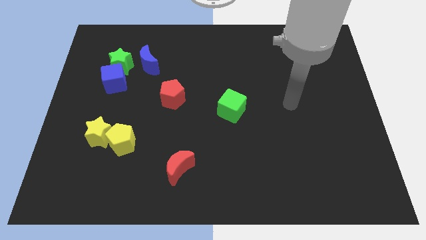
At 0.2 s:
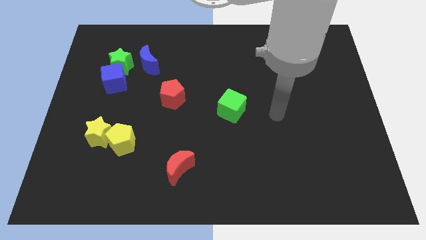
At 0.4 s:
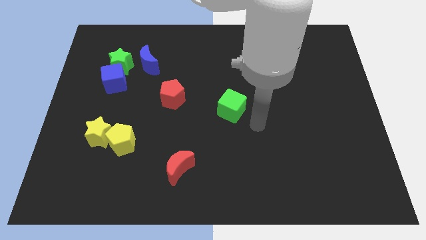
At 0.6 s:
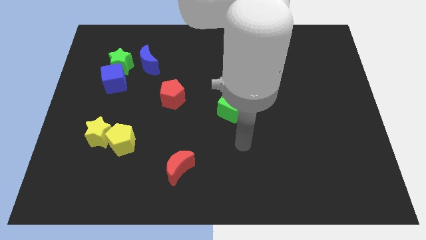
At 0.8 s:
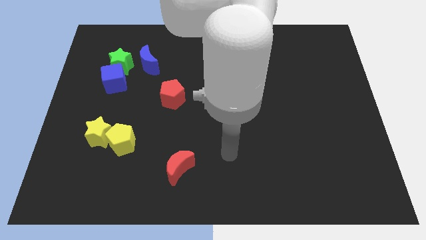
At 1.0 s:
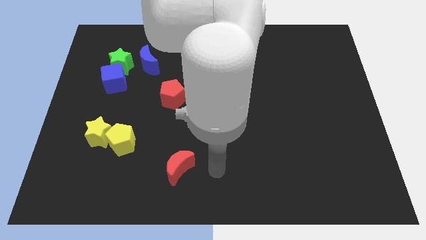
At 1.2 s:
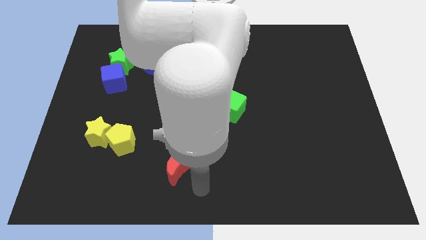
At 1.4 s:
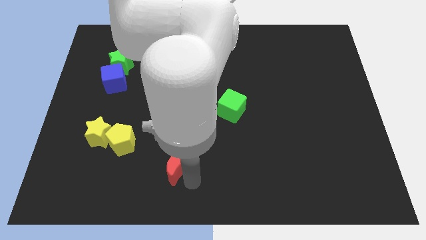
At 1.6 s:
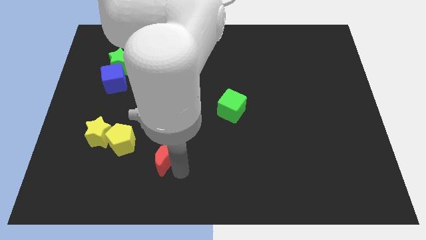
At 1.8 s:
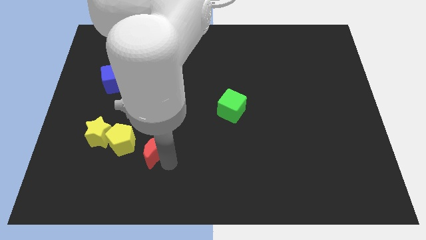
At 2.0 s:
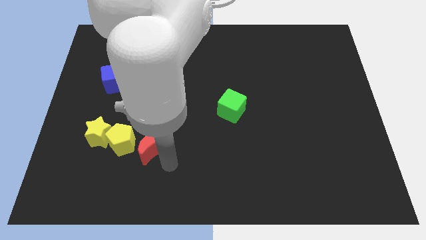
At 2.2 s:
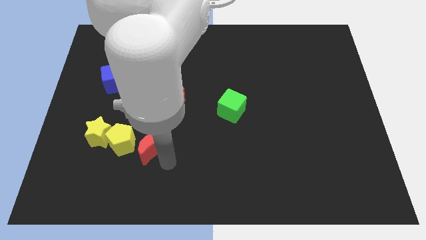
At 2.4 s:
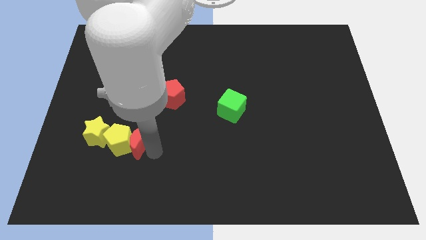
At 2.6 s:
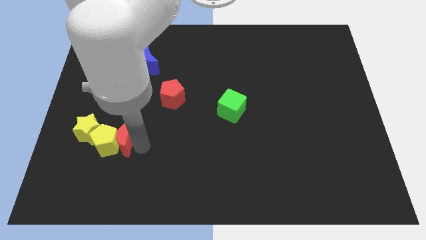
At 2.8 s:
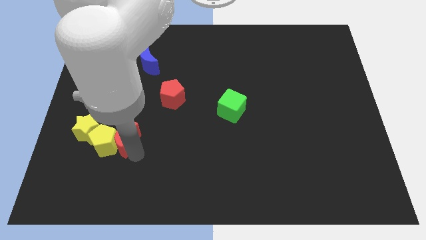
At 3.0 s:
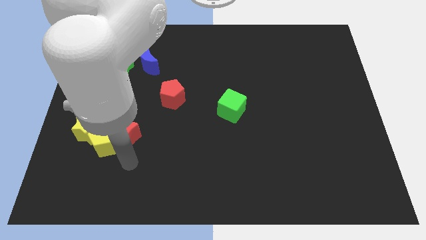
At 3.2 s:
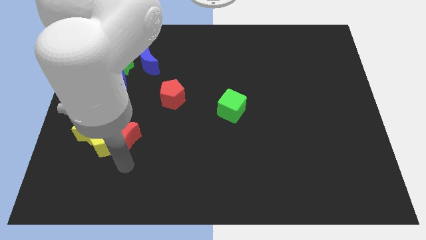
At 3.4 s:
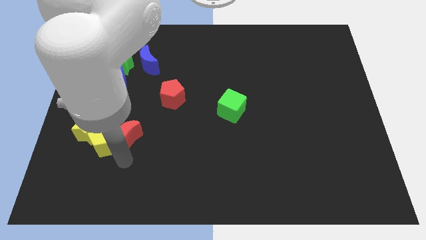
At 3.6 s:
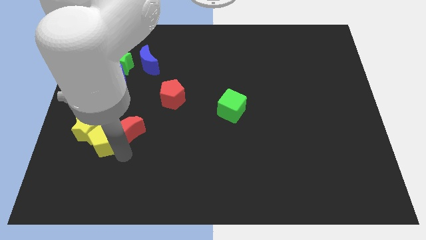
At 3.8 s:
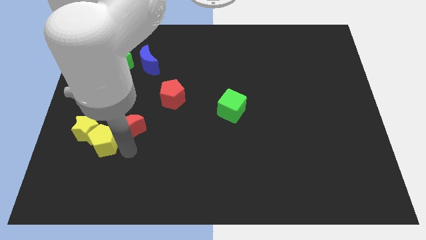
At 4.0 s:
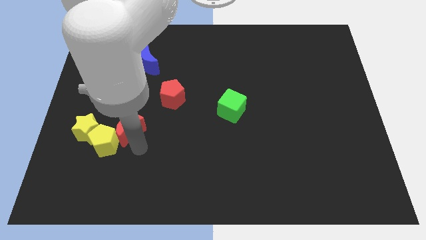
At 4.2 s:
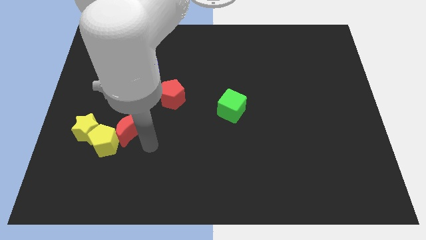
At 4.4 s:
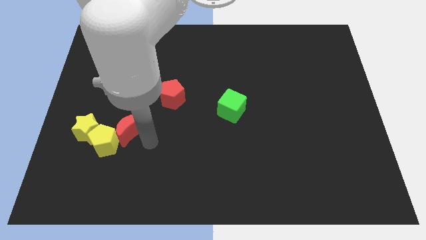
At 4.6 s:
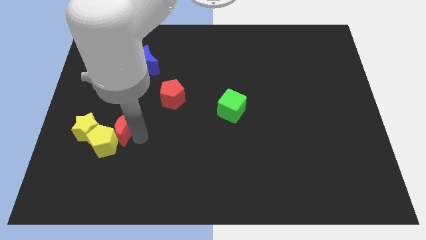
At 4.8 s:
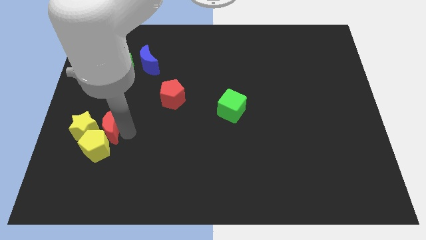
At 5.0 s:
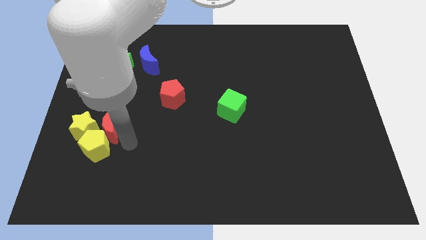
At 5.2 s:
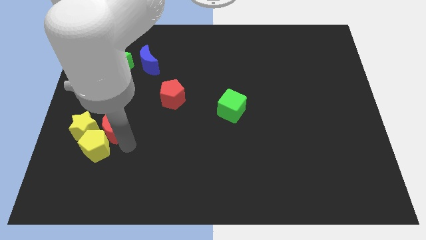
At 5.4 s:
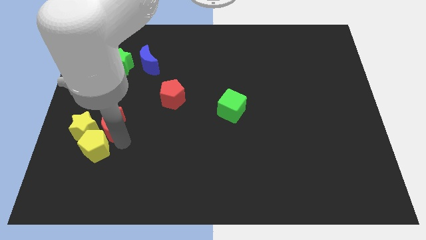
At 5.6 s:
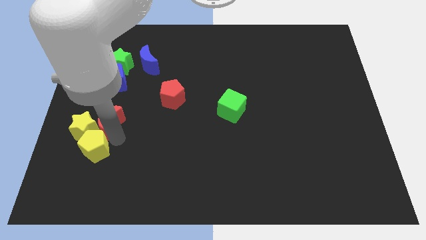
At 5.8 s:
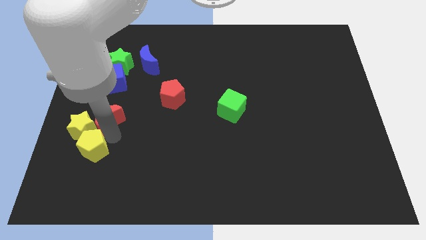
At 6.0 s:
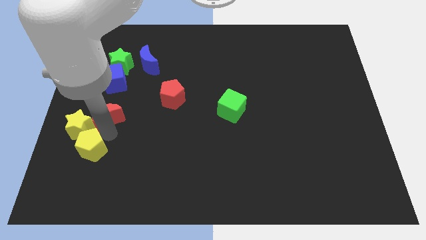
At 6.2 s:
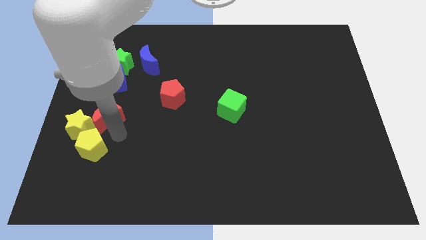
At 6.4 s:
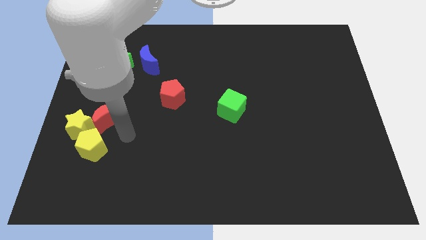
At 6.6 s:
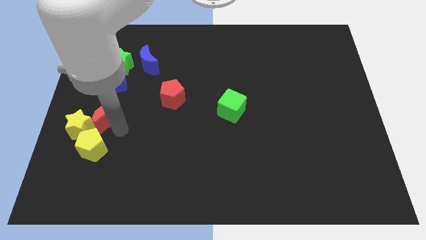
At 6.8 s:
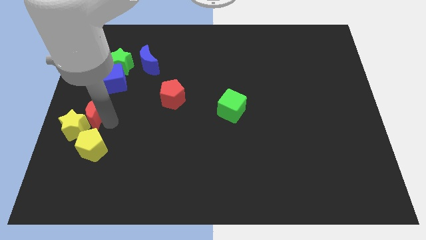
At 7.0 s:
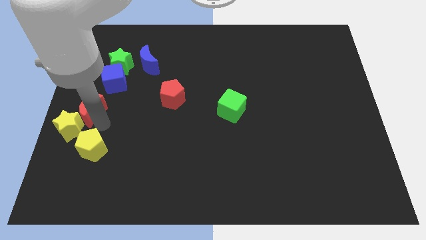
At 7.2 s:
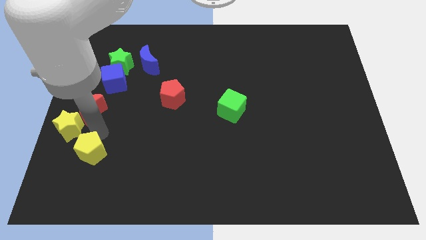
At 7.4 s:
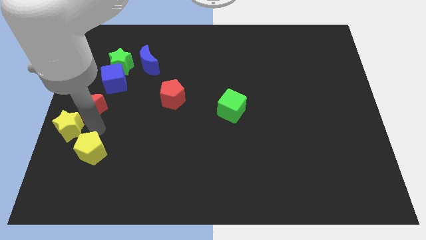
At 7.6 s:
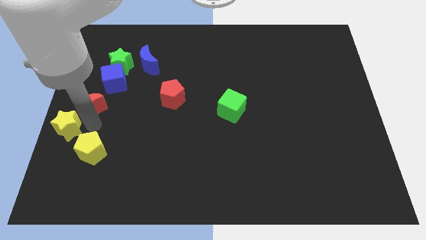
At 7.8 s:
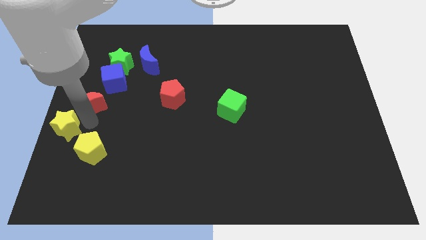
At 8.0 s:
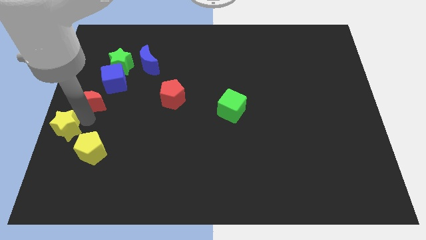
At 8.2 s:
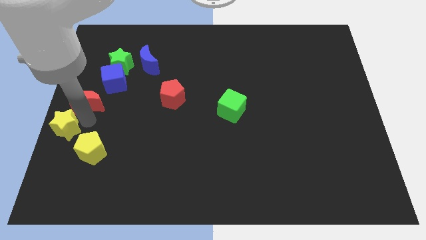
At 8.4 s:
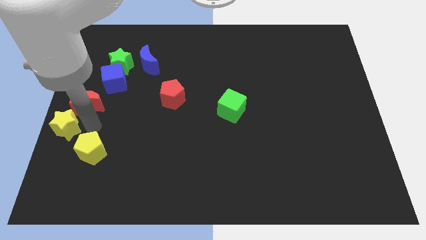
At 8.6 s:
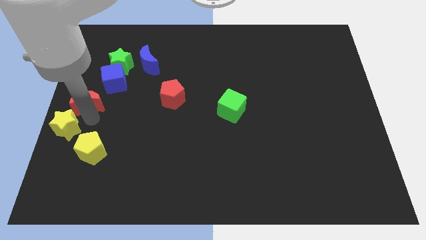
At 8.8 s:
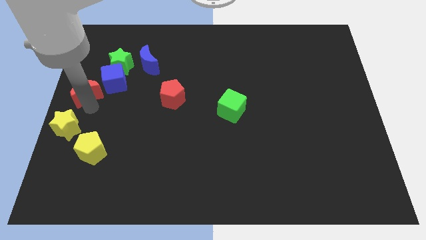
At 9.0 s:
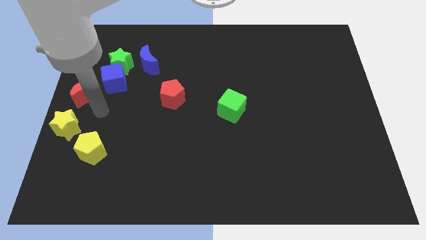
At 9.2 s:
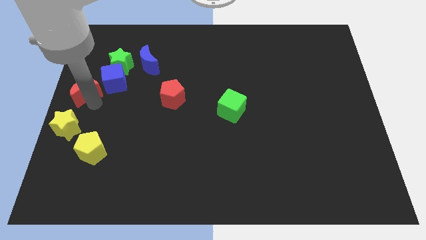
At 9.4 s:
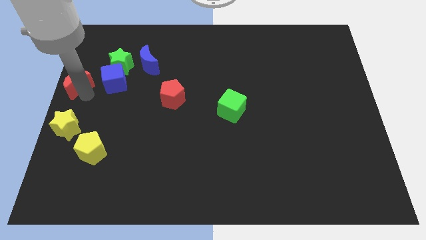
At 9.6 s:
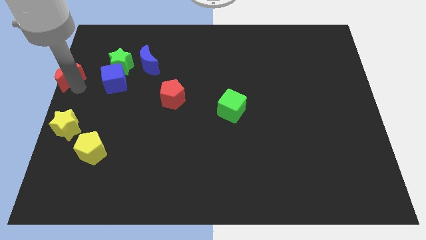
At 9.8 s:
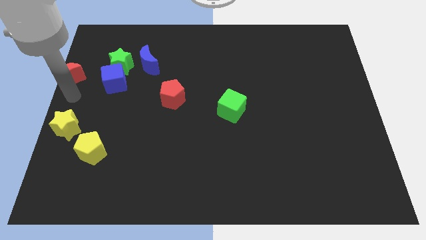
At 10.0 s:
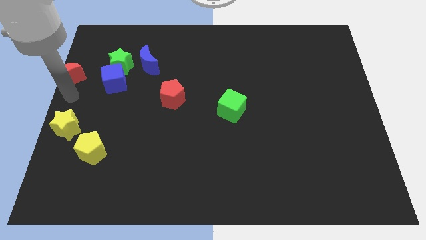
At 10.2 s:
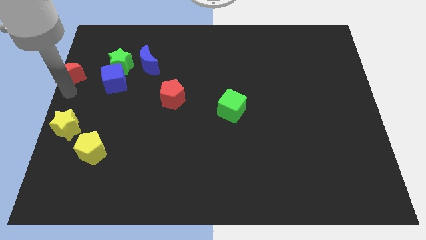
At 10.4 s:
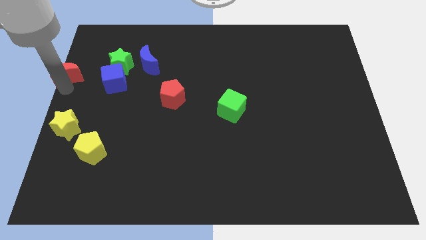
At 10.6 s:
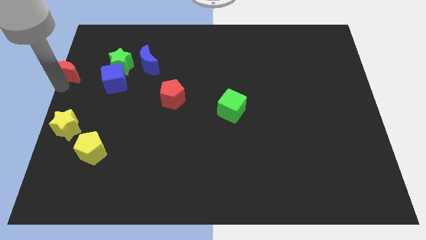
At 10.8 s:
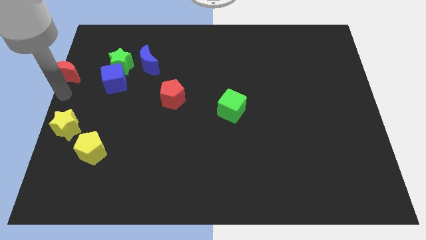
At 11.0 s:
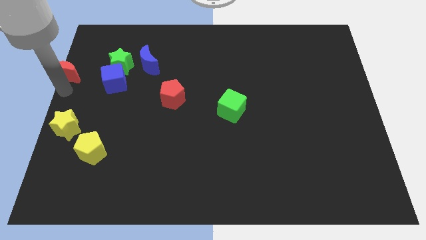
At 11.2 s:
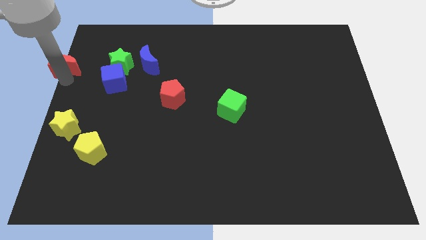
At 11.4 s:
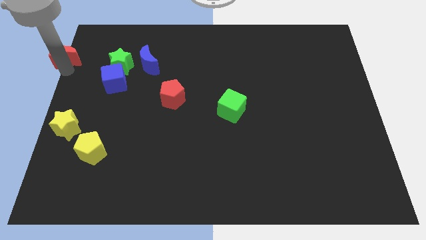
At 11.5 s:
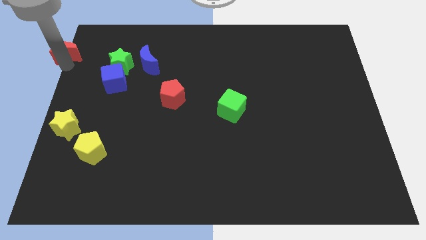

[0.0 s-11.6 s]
move the red moon to the top left of the board
